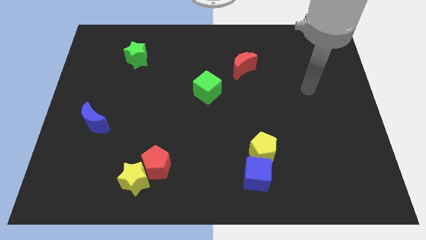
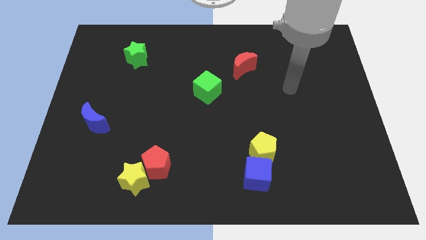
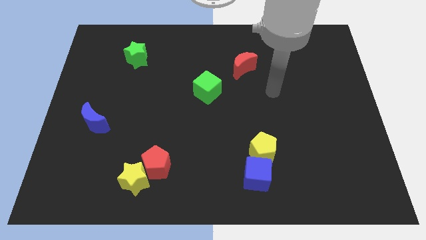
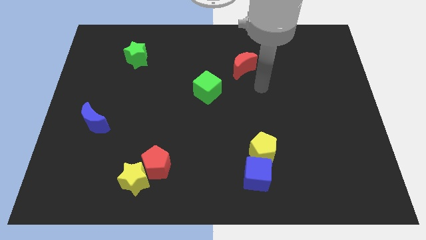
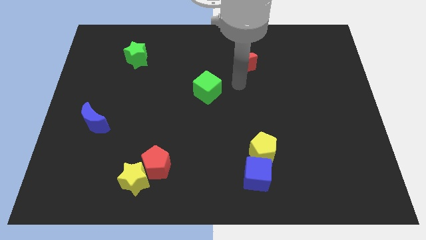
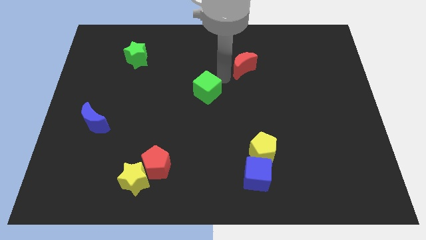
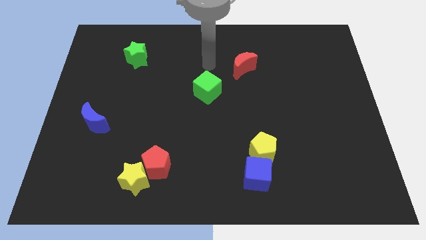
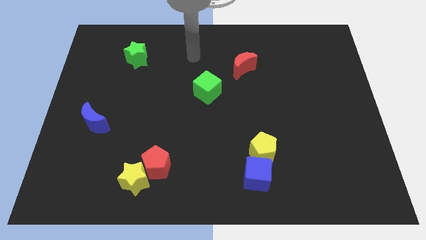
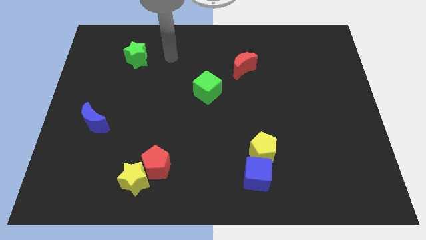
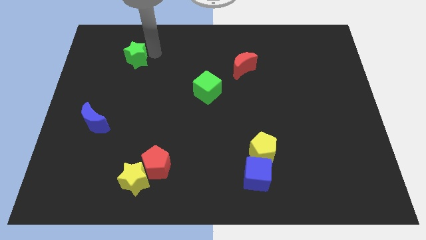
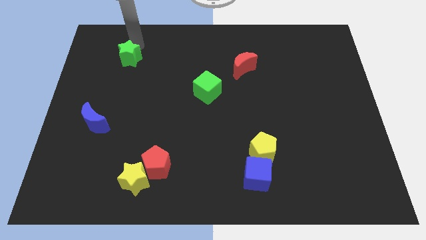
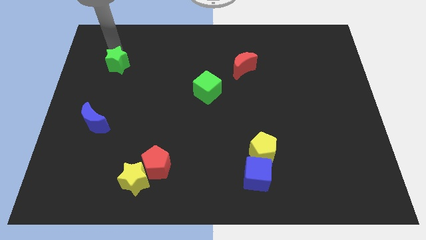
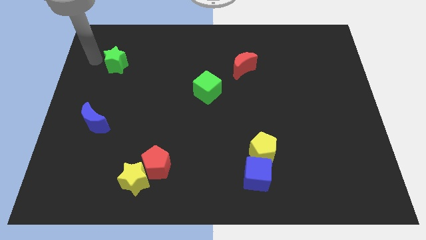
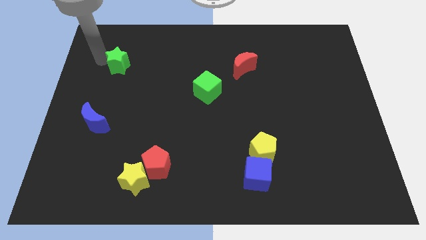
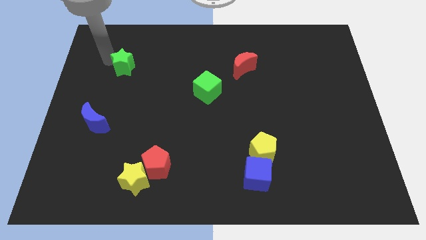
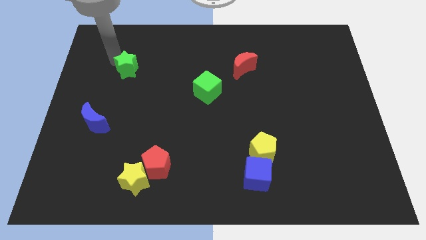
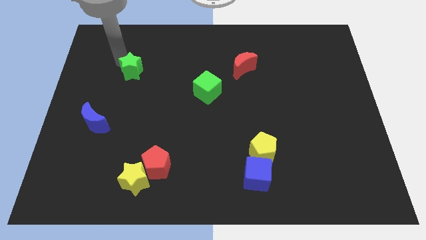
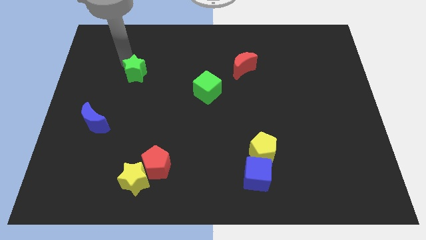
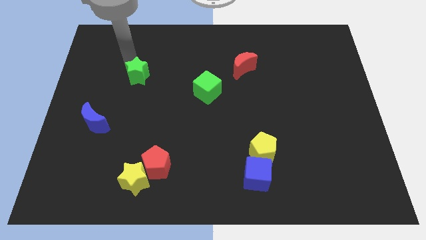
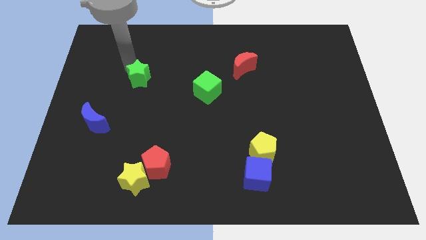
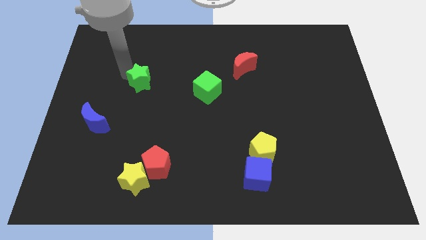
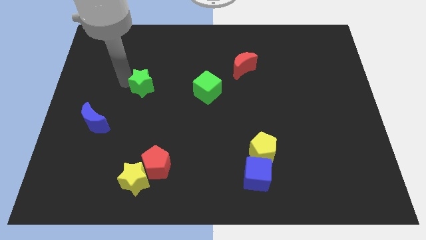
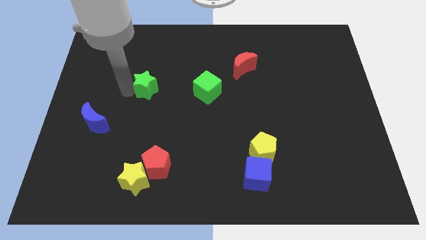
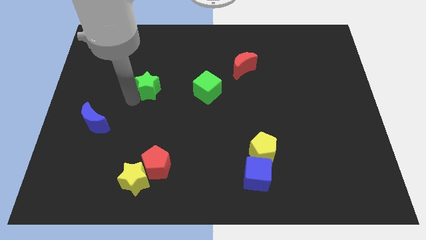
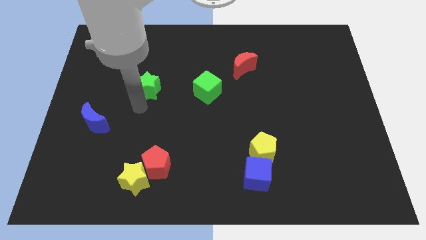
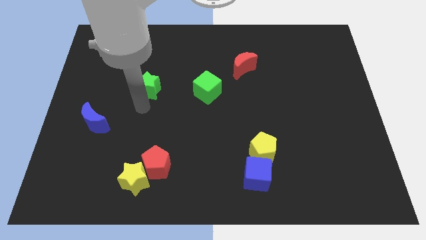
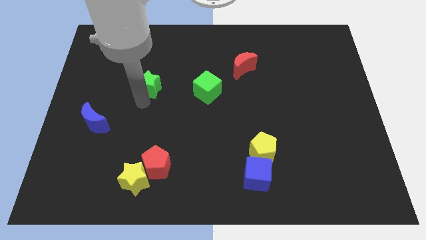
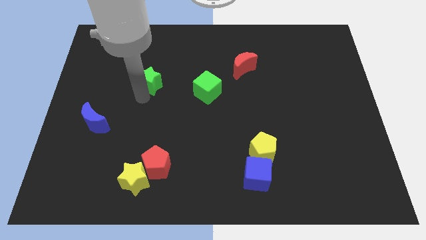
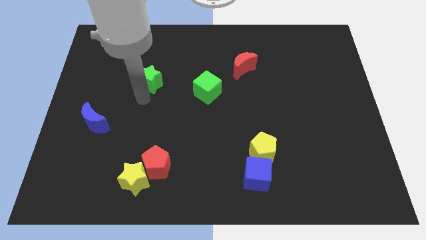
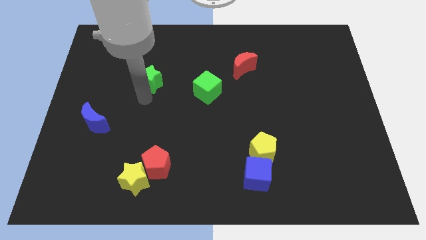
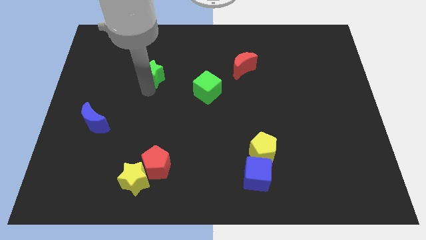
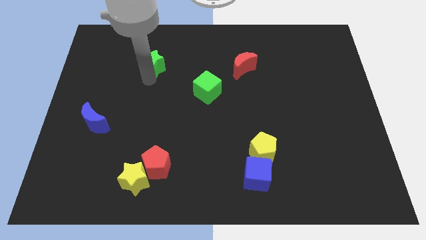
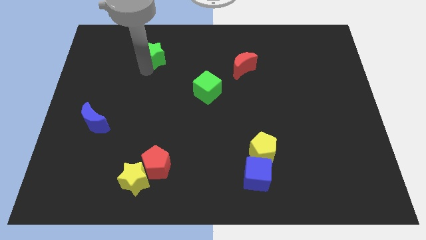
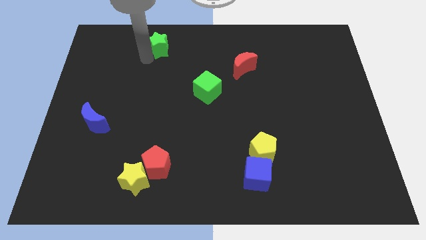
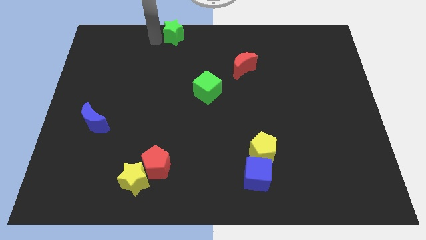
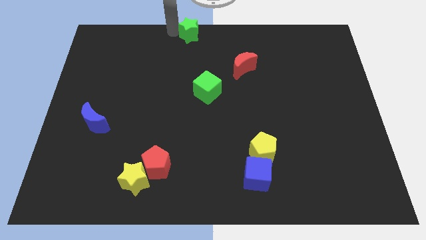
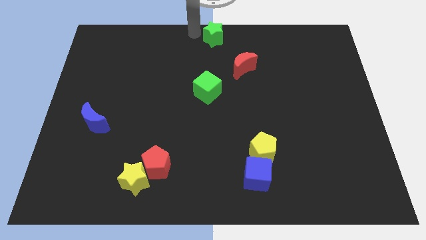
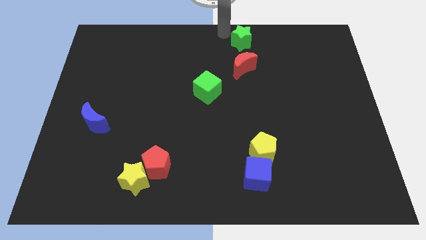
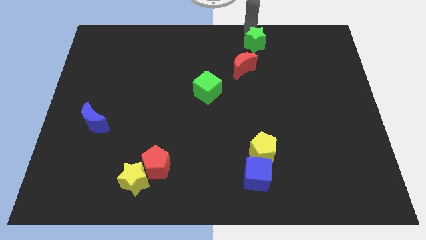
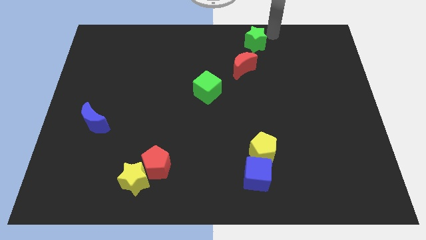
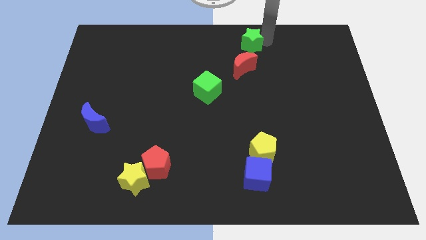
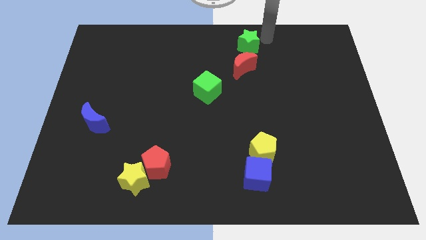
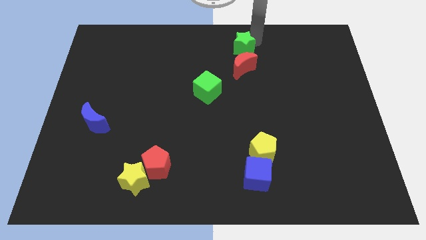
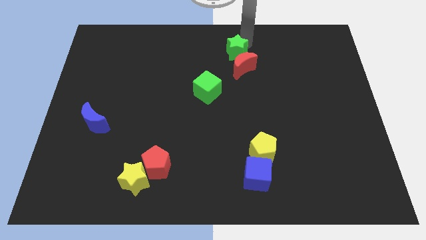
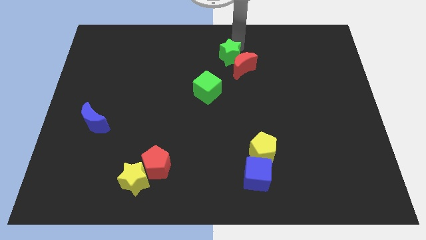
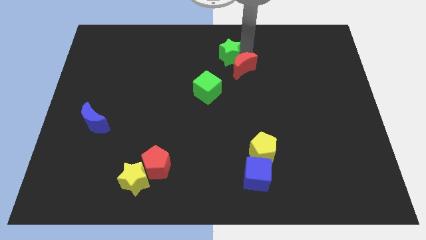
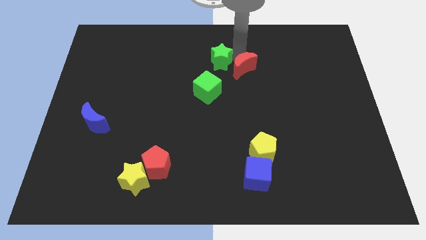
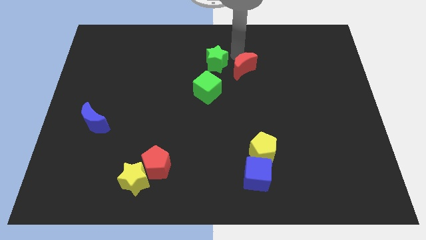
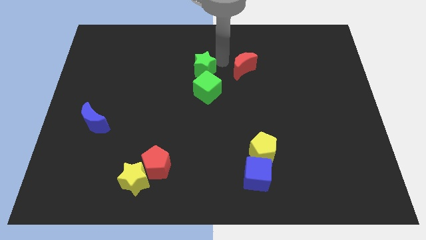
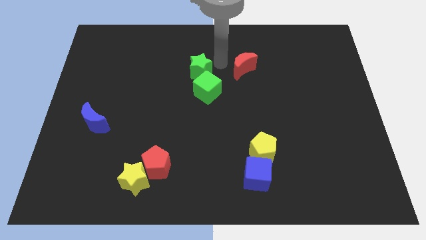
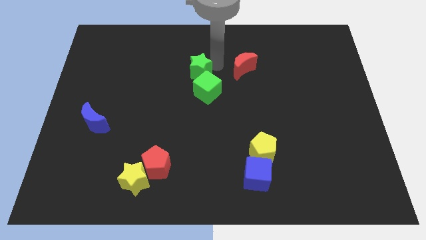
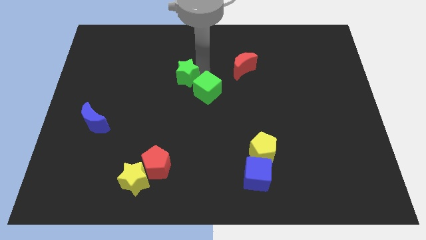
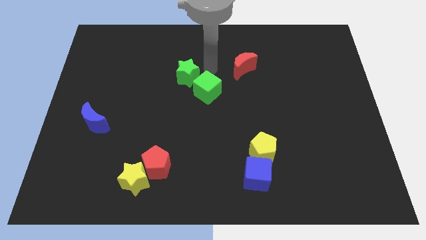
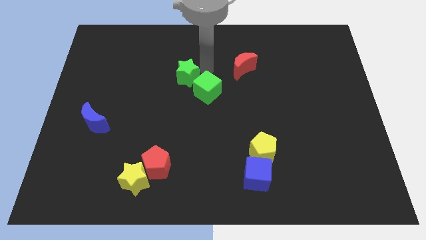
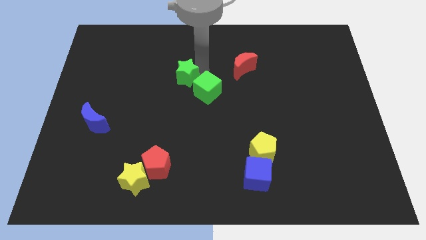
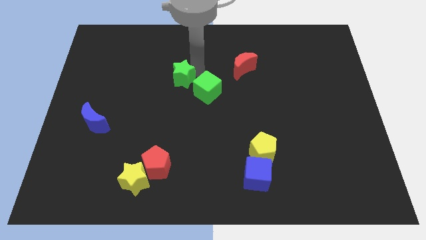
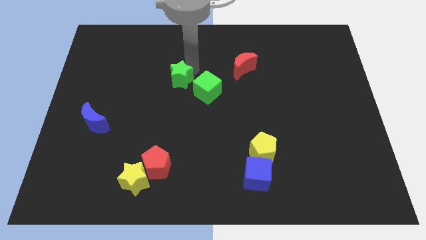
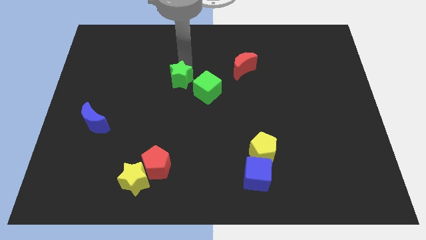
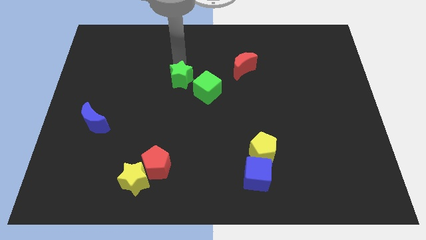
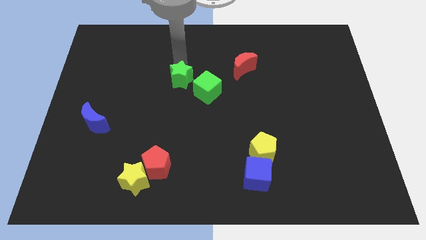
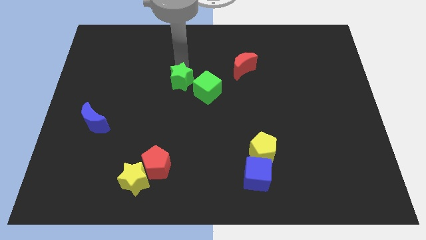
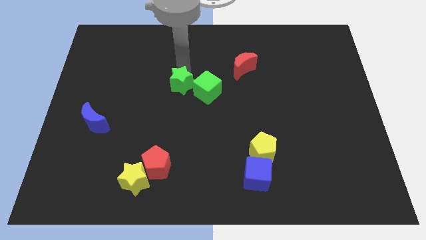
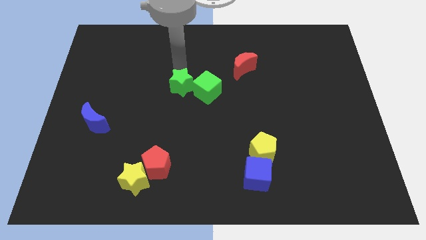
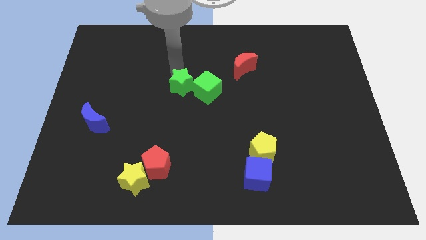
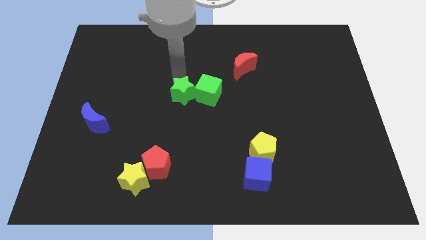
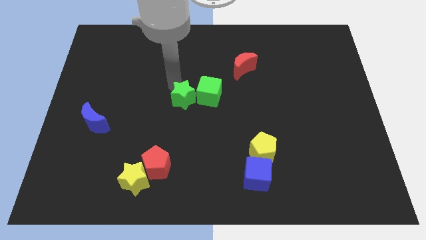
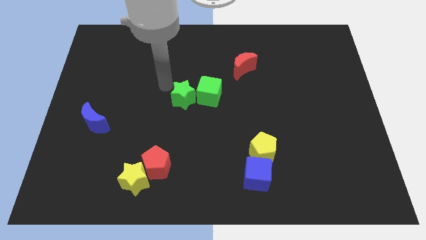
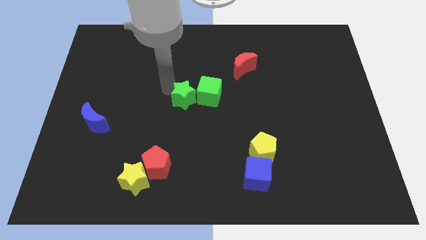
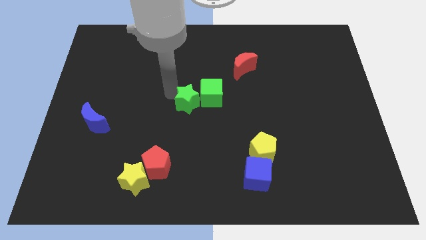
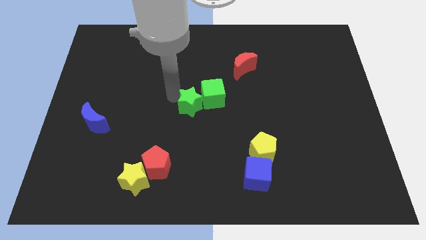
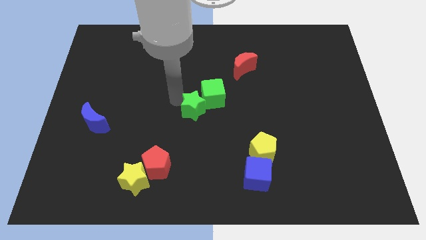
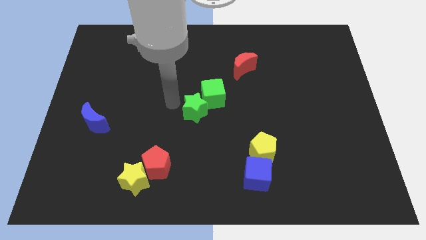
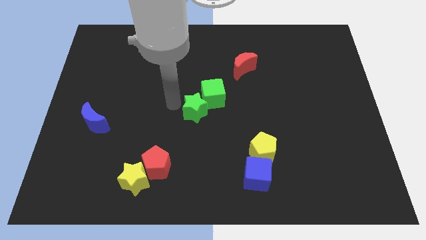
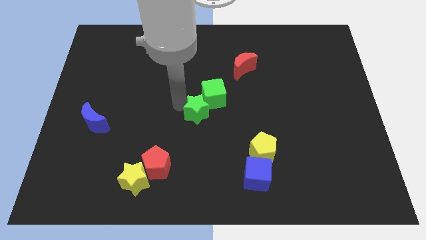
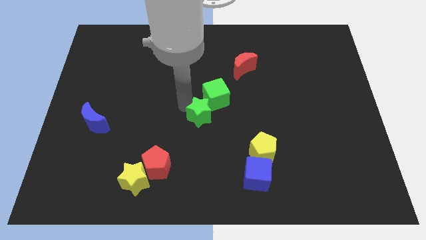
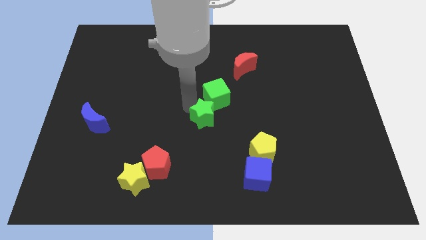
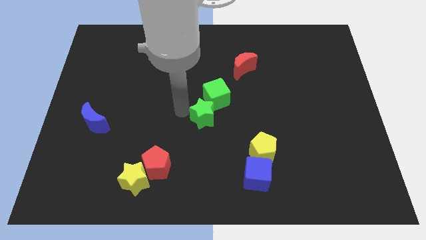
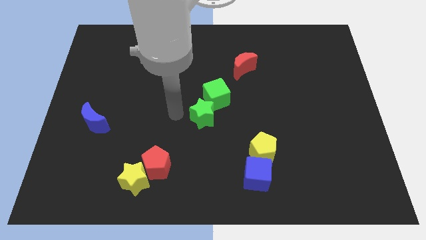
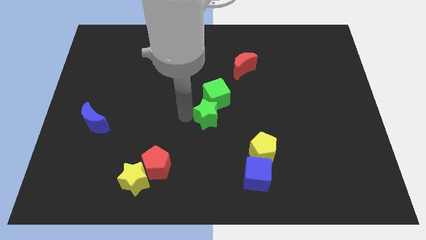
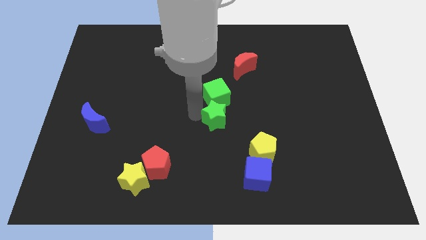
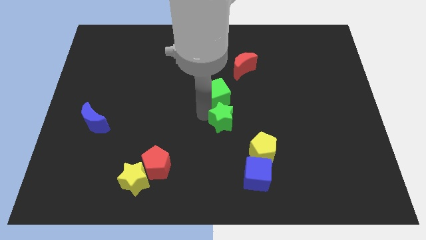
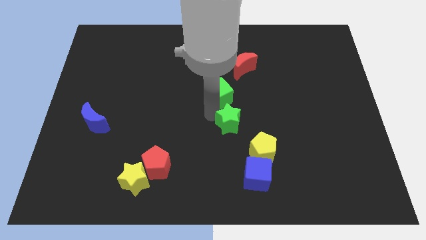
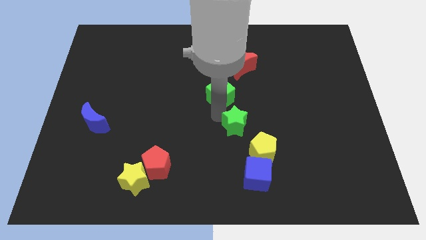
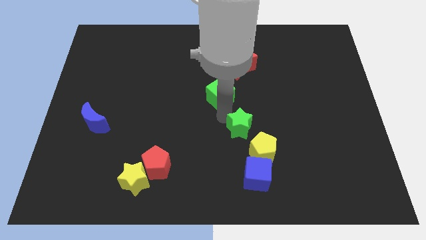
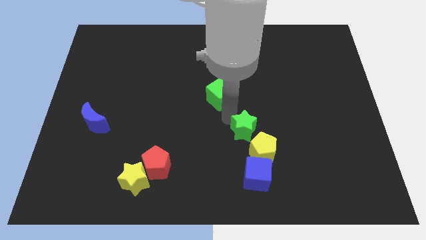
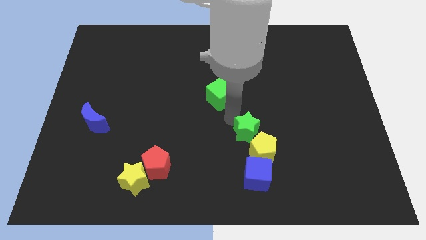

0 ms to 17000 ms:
put the green star next to the yellow pentagon
